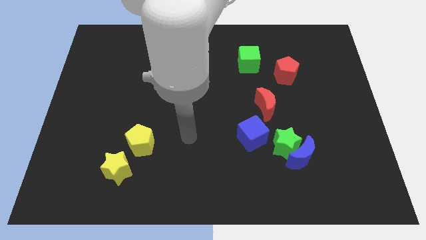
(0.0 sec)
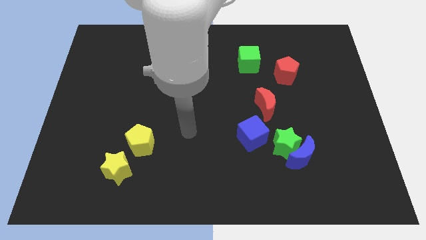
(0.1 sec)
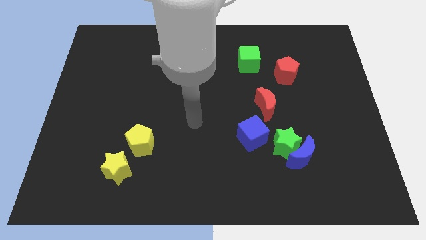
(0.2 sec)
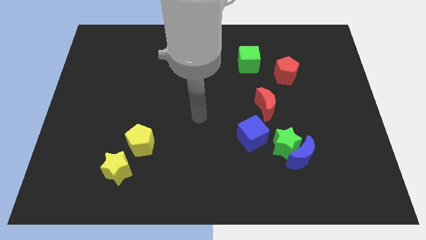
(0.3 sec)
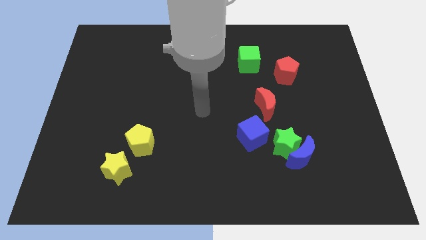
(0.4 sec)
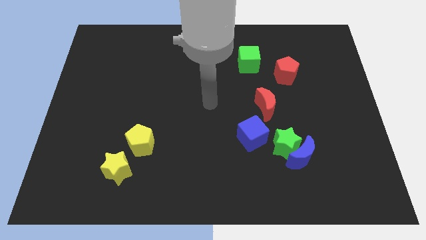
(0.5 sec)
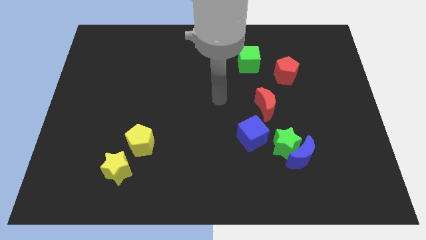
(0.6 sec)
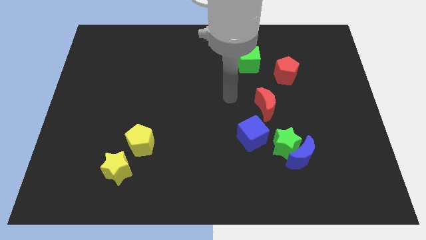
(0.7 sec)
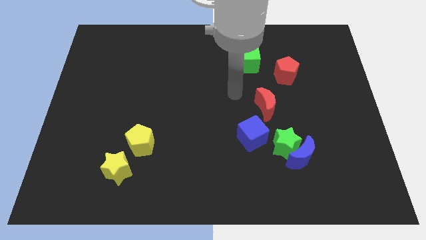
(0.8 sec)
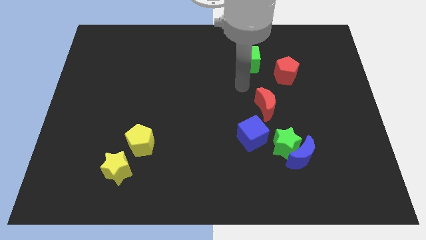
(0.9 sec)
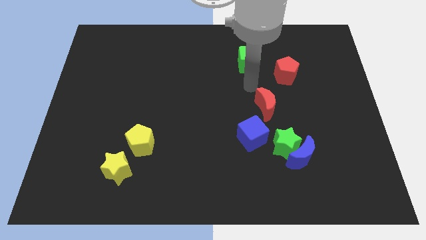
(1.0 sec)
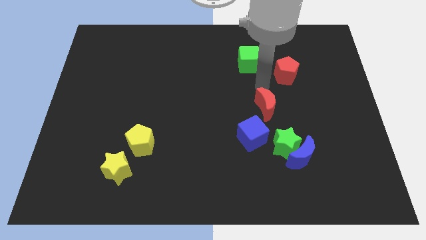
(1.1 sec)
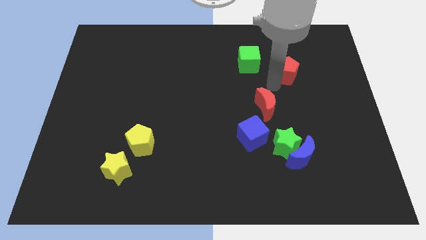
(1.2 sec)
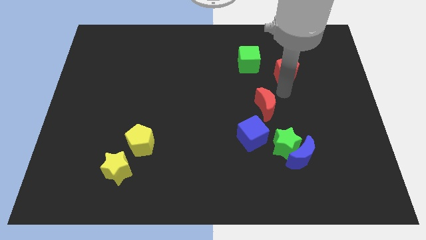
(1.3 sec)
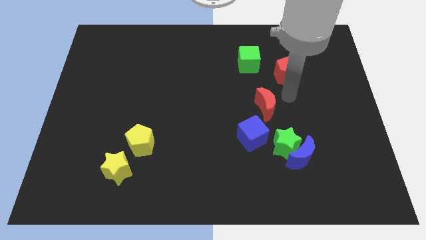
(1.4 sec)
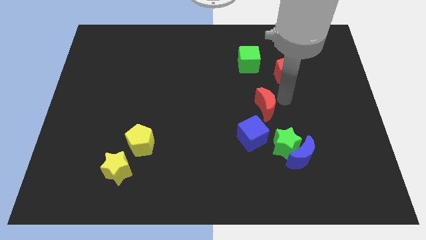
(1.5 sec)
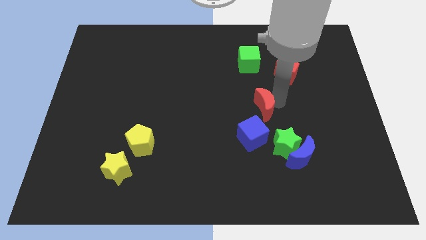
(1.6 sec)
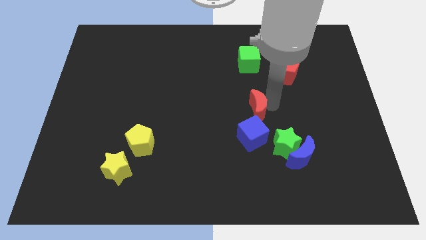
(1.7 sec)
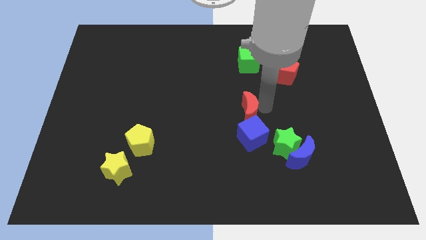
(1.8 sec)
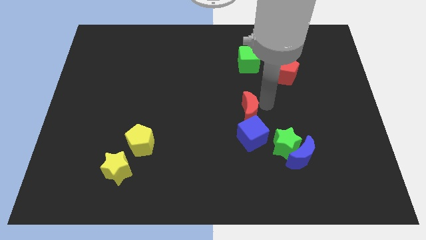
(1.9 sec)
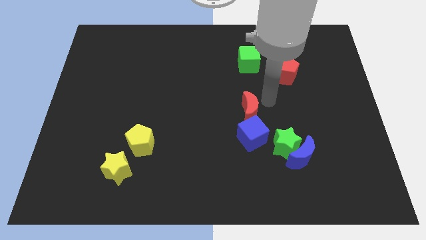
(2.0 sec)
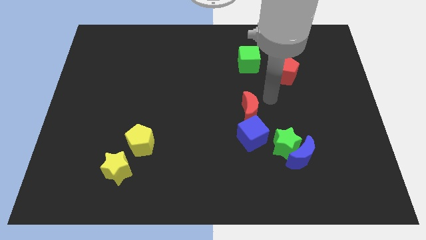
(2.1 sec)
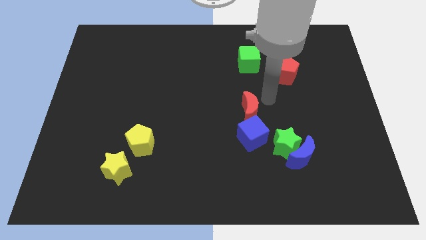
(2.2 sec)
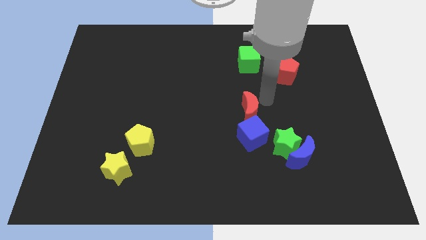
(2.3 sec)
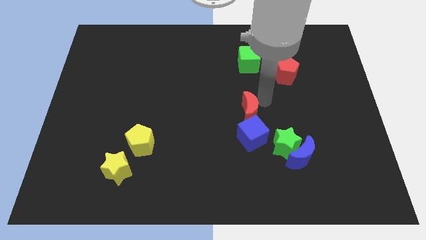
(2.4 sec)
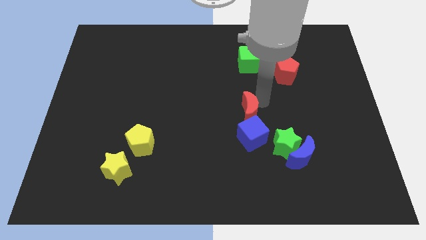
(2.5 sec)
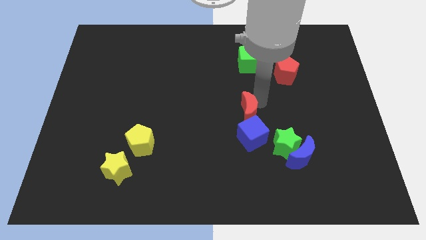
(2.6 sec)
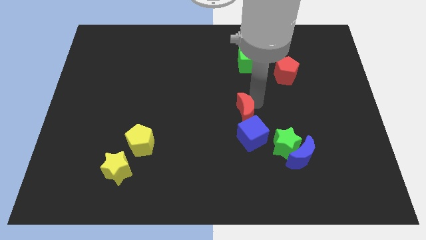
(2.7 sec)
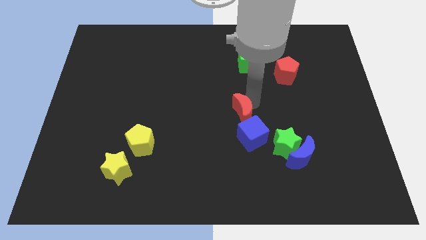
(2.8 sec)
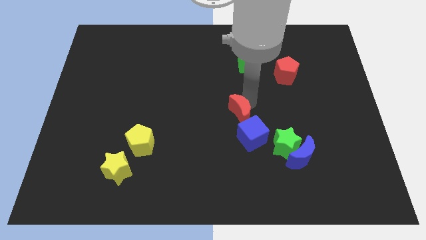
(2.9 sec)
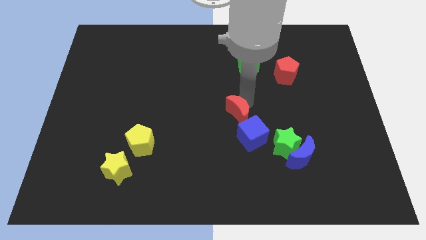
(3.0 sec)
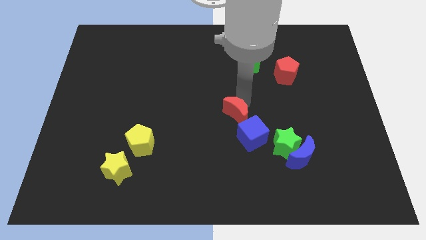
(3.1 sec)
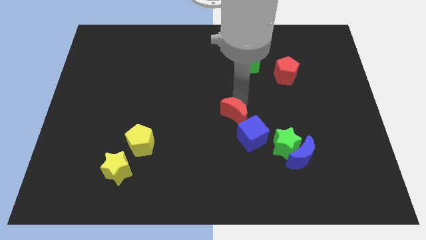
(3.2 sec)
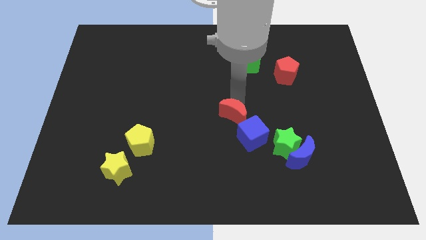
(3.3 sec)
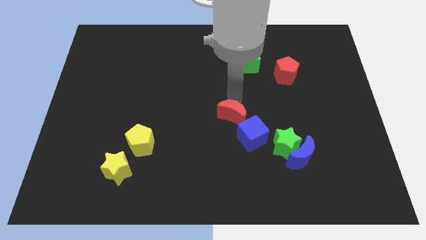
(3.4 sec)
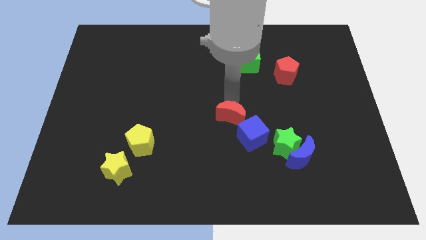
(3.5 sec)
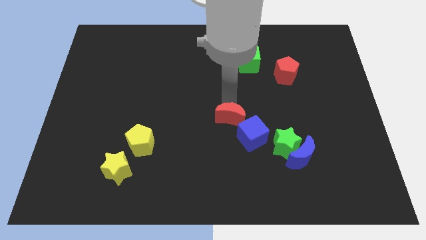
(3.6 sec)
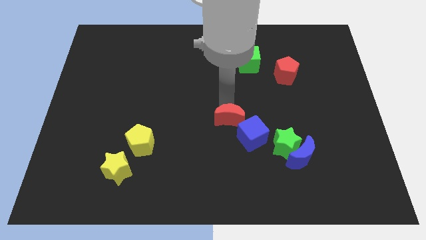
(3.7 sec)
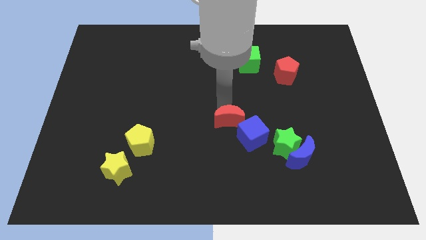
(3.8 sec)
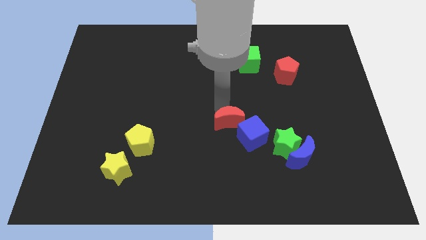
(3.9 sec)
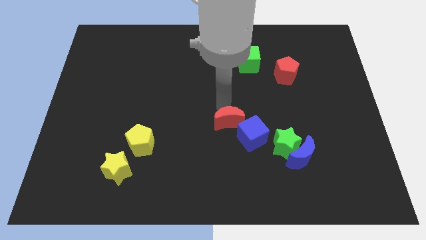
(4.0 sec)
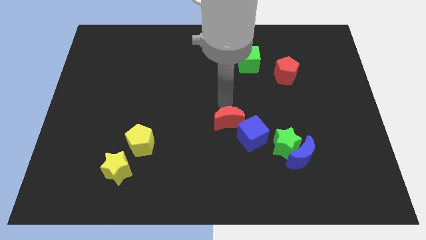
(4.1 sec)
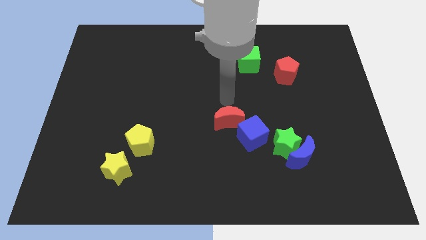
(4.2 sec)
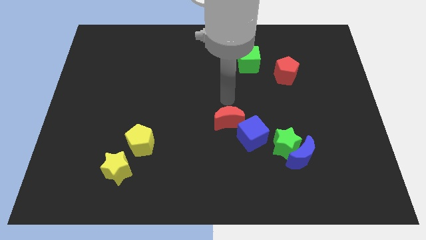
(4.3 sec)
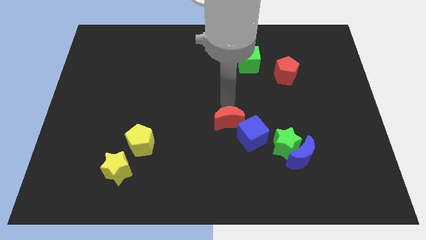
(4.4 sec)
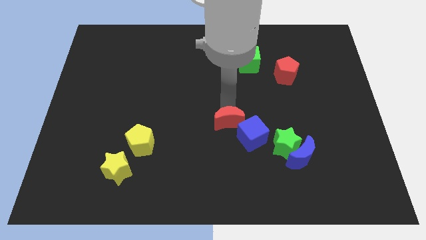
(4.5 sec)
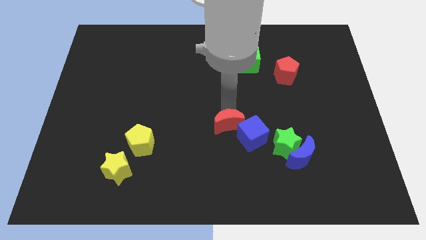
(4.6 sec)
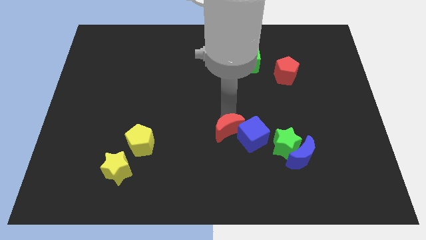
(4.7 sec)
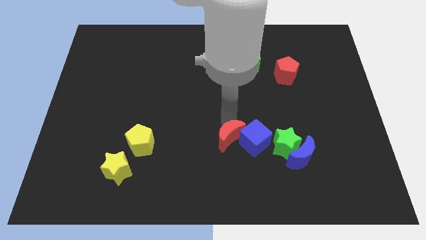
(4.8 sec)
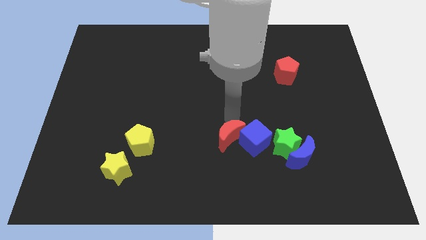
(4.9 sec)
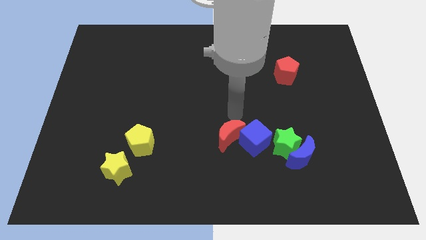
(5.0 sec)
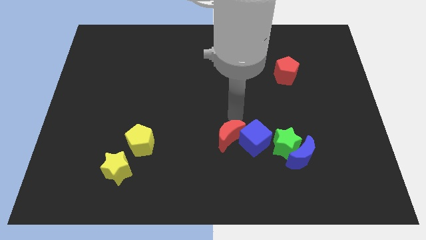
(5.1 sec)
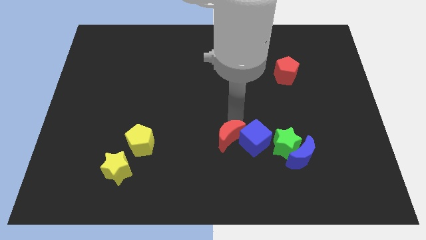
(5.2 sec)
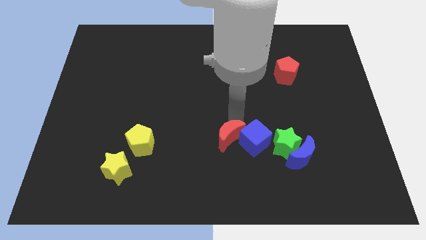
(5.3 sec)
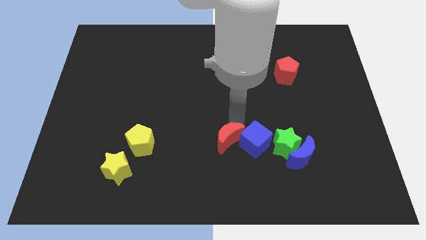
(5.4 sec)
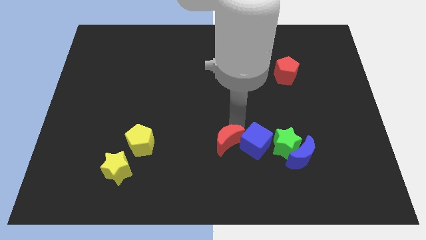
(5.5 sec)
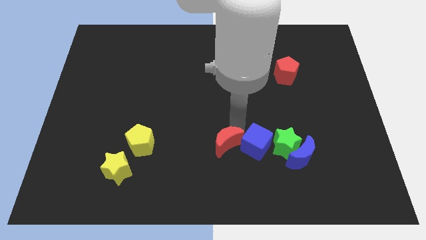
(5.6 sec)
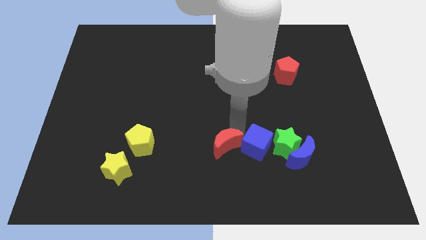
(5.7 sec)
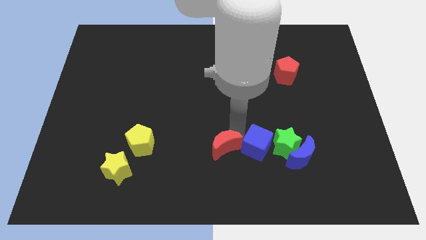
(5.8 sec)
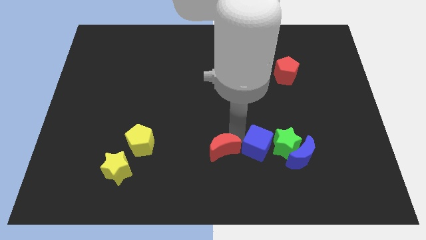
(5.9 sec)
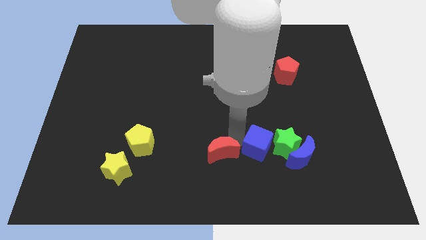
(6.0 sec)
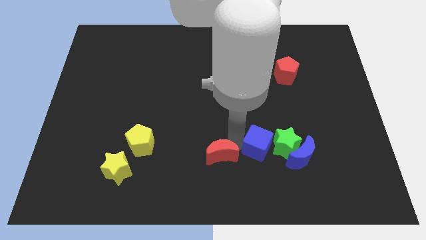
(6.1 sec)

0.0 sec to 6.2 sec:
move the red moon to the bottom side
